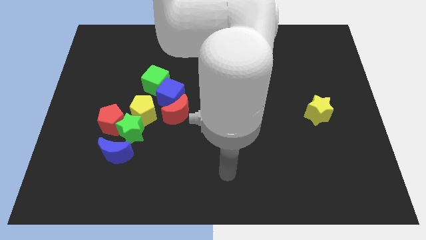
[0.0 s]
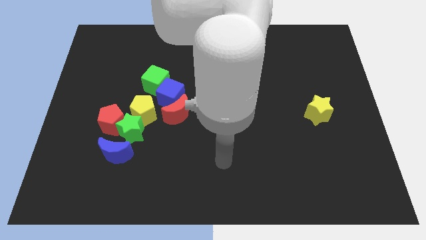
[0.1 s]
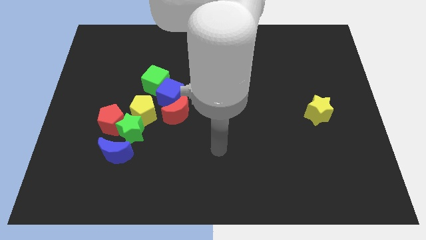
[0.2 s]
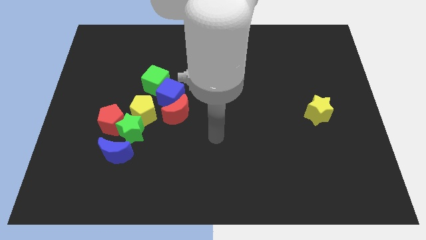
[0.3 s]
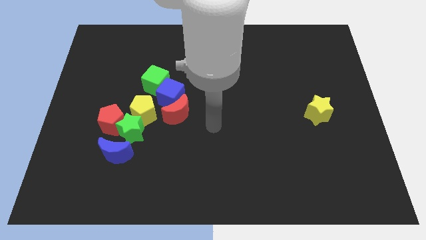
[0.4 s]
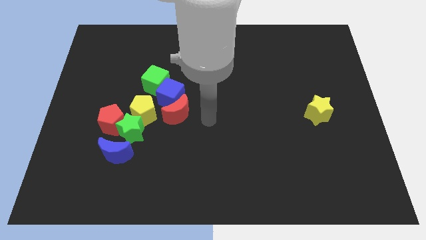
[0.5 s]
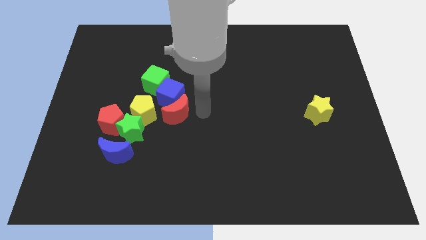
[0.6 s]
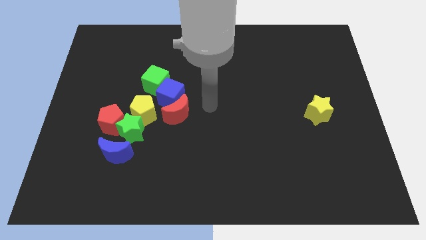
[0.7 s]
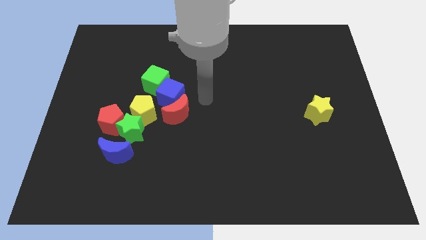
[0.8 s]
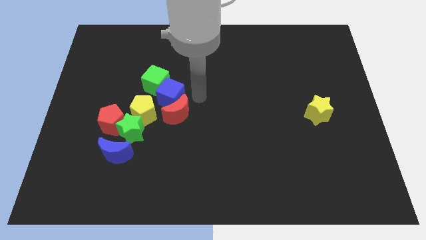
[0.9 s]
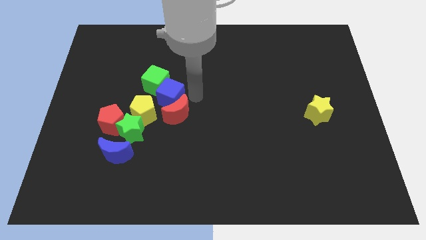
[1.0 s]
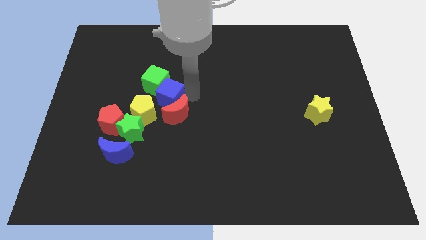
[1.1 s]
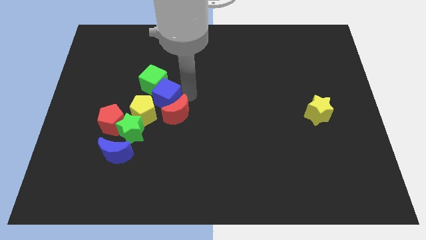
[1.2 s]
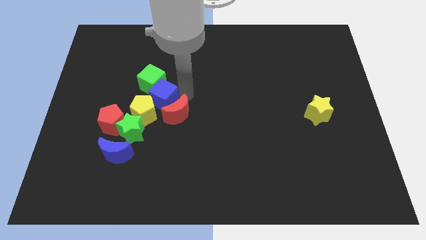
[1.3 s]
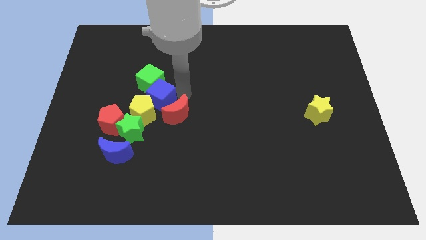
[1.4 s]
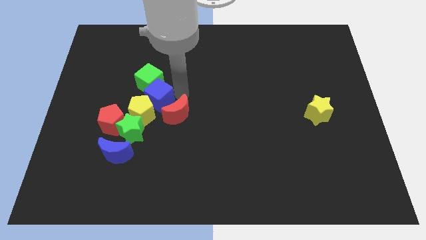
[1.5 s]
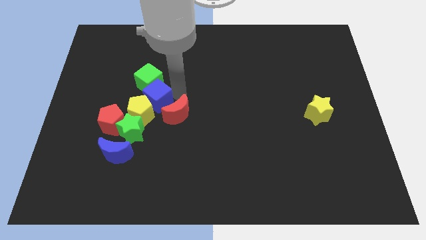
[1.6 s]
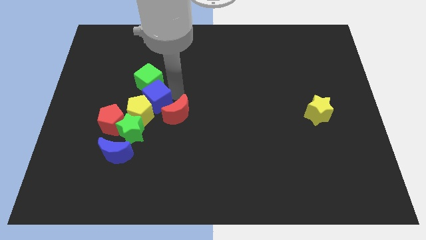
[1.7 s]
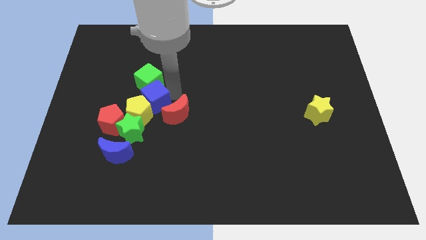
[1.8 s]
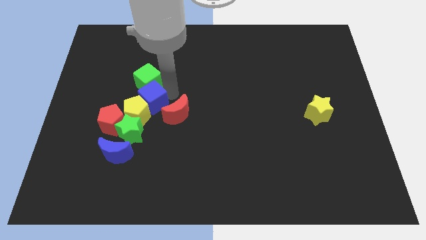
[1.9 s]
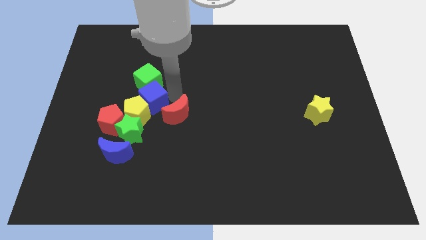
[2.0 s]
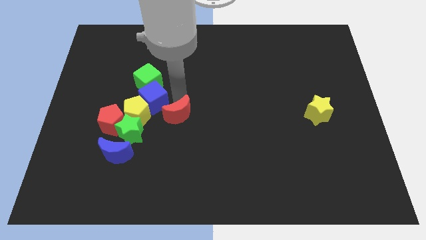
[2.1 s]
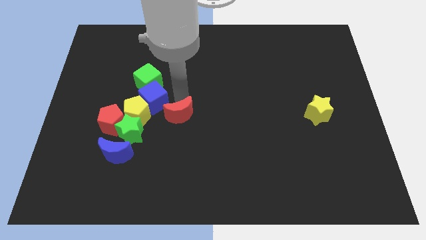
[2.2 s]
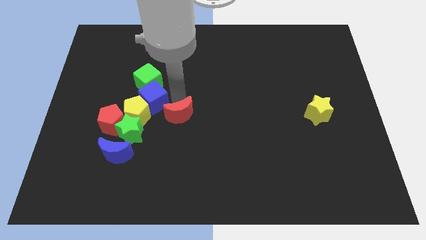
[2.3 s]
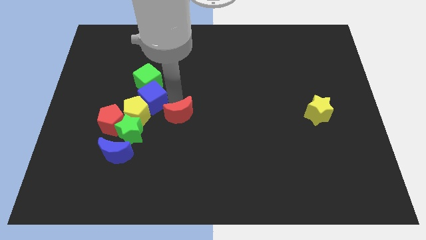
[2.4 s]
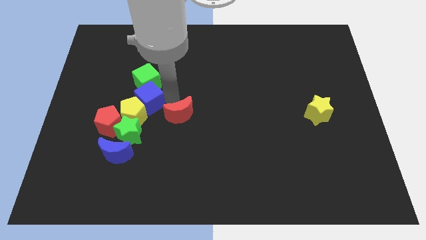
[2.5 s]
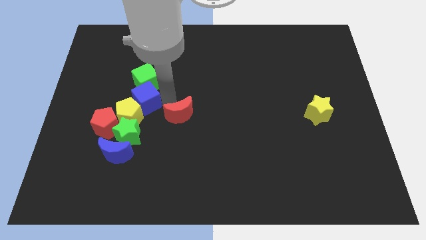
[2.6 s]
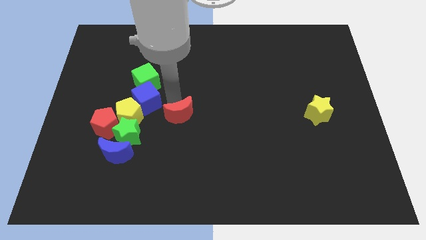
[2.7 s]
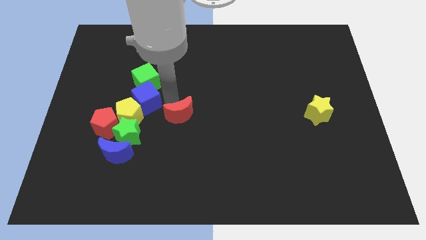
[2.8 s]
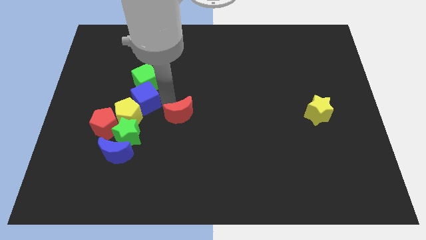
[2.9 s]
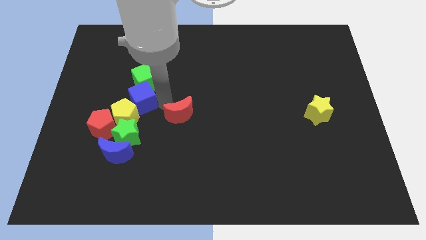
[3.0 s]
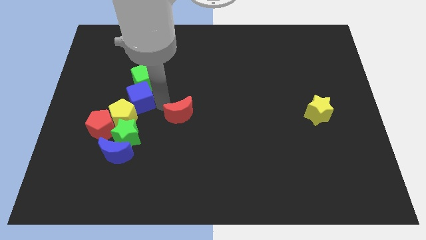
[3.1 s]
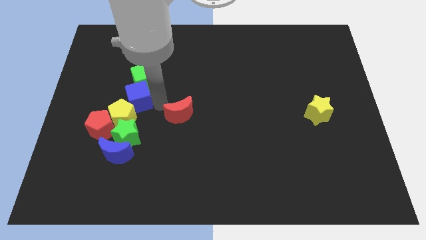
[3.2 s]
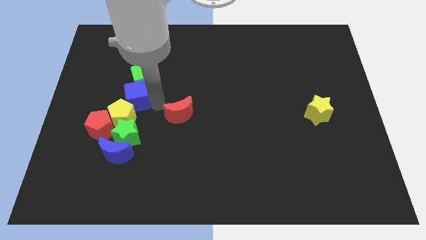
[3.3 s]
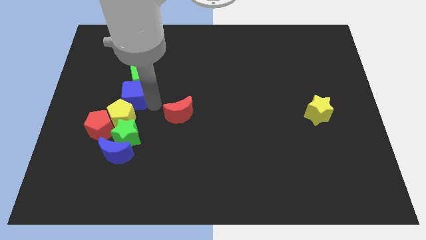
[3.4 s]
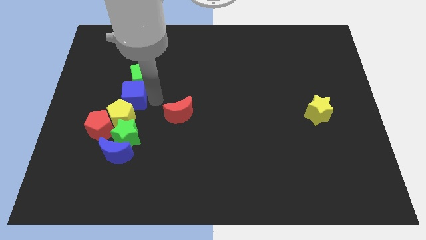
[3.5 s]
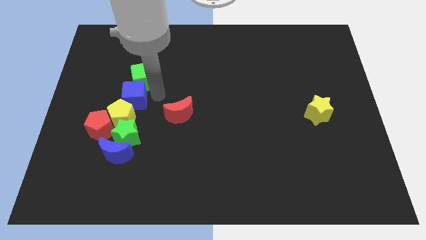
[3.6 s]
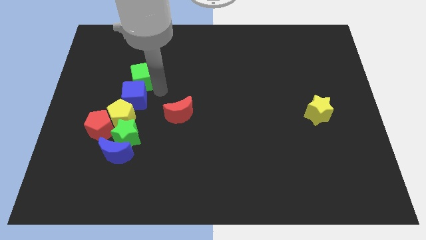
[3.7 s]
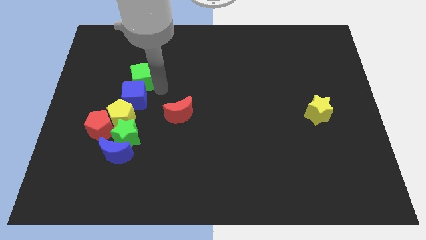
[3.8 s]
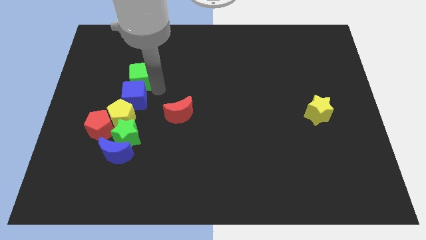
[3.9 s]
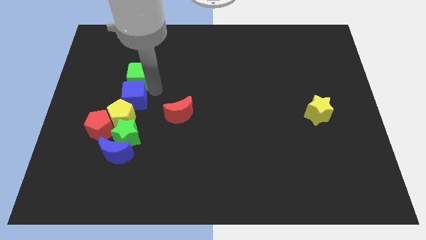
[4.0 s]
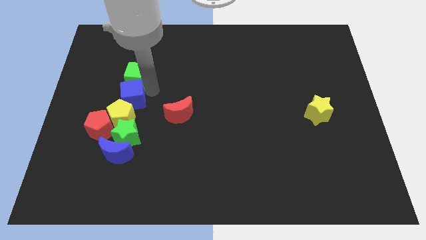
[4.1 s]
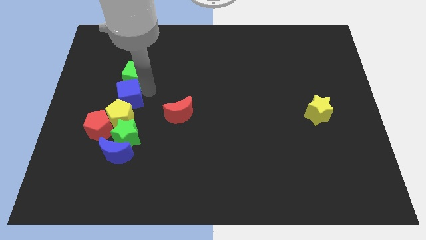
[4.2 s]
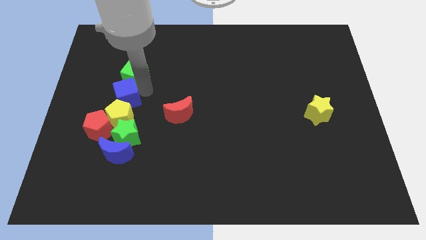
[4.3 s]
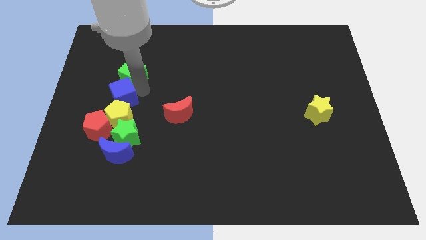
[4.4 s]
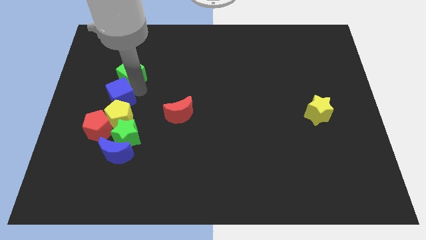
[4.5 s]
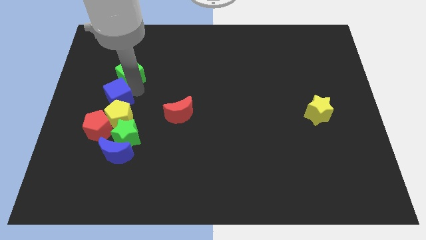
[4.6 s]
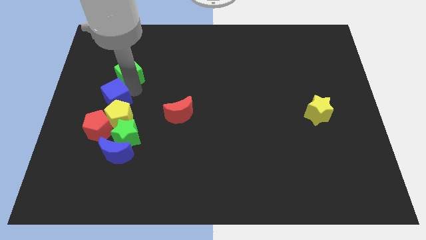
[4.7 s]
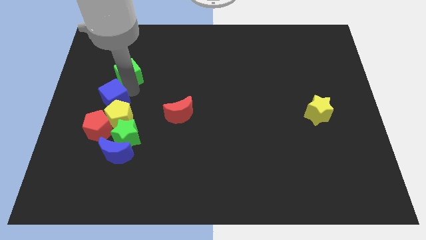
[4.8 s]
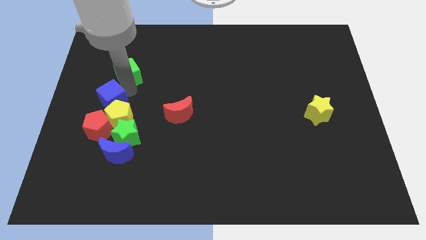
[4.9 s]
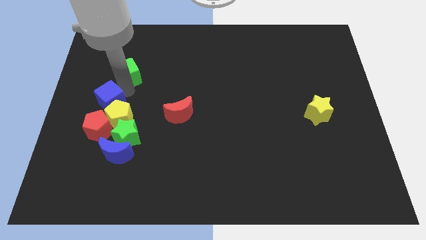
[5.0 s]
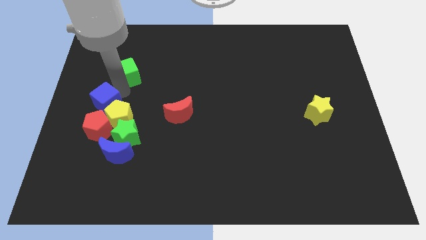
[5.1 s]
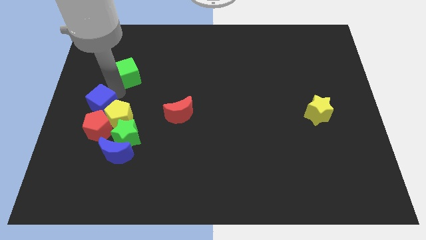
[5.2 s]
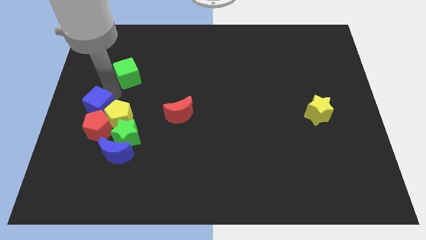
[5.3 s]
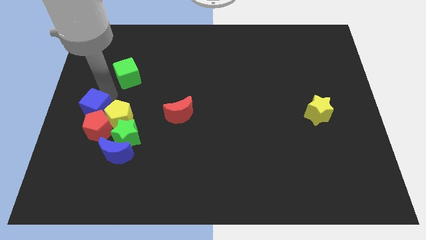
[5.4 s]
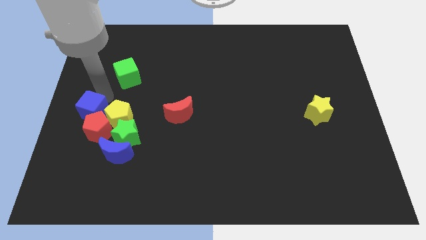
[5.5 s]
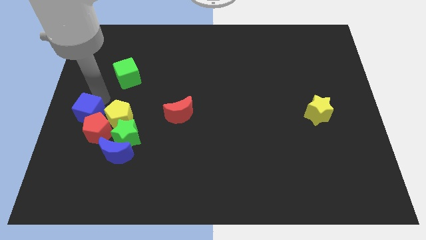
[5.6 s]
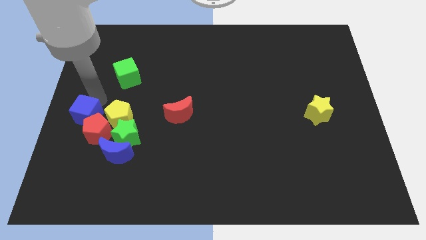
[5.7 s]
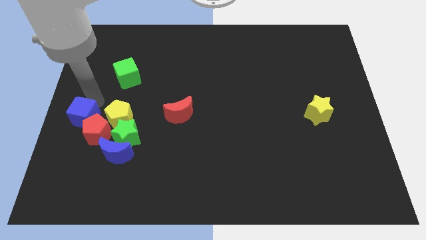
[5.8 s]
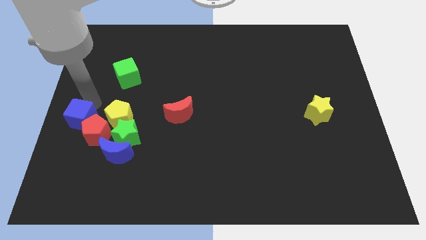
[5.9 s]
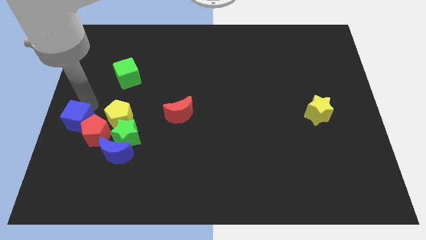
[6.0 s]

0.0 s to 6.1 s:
push the blue cube just left of the green star

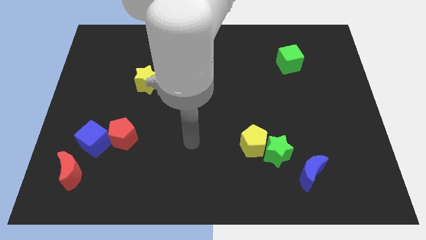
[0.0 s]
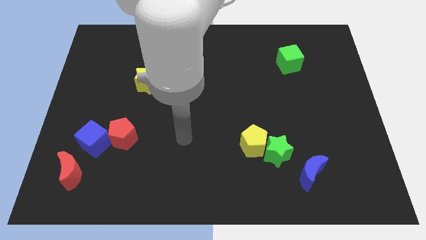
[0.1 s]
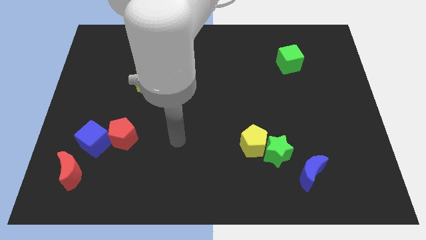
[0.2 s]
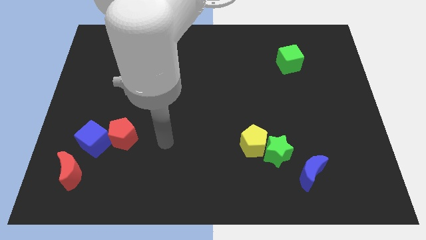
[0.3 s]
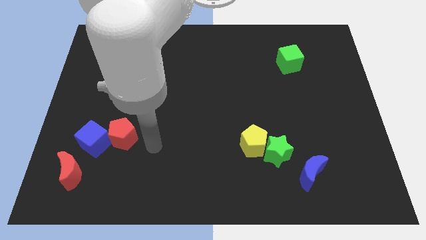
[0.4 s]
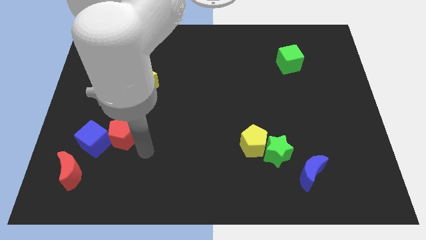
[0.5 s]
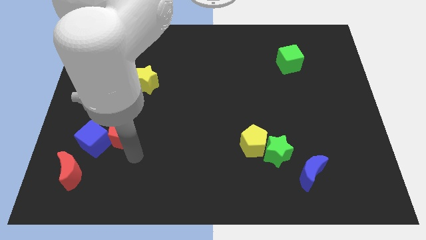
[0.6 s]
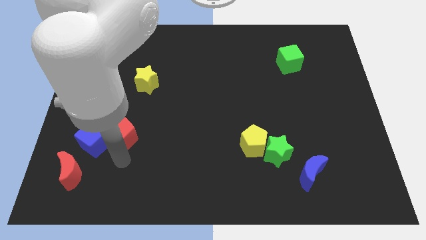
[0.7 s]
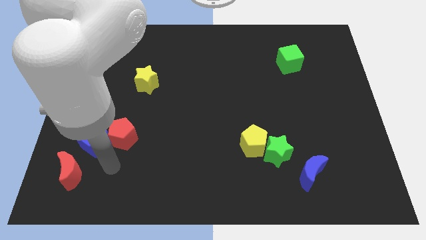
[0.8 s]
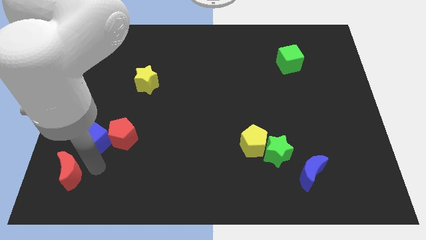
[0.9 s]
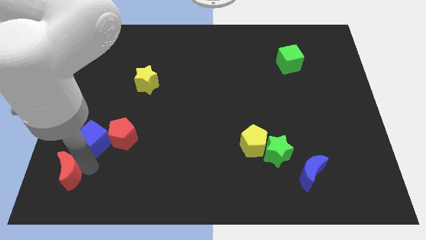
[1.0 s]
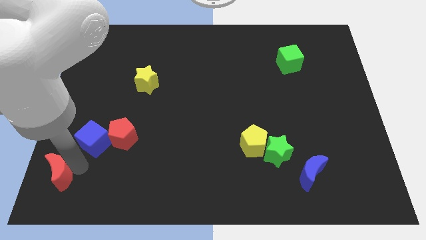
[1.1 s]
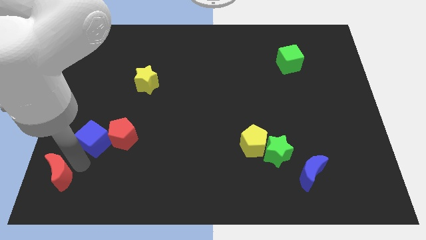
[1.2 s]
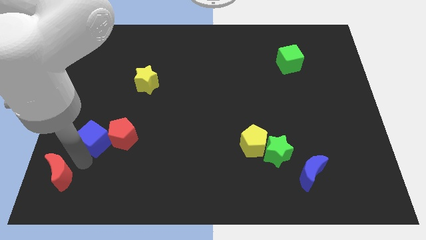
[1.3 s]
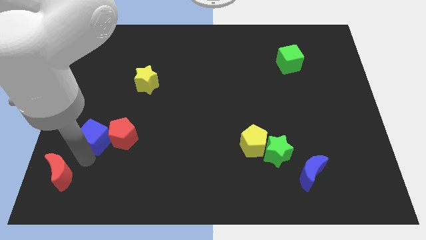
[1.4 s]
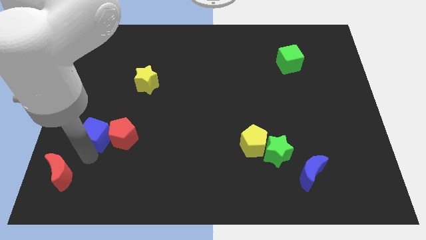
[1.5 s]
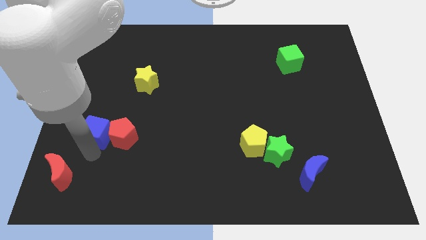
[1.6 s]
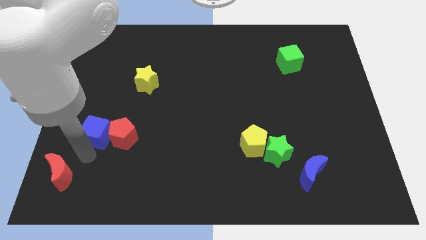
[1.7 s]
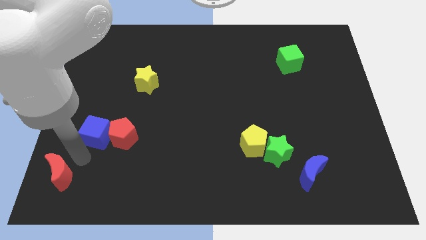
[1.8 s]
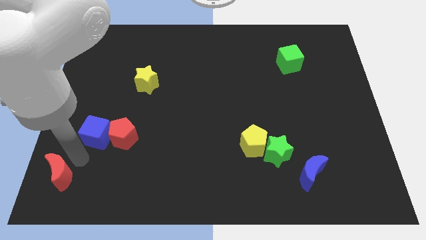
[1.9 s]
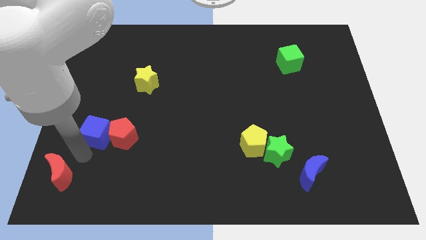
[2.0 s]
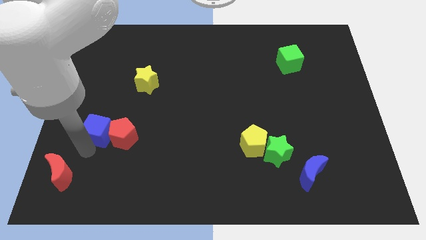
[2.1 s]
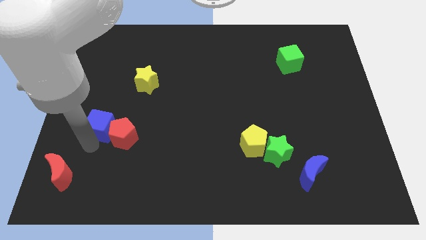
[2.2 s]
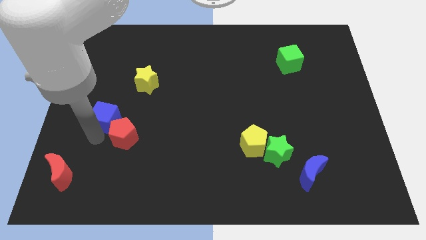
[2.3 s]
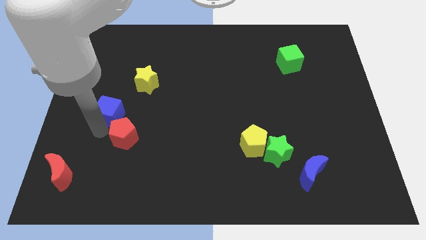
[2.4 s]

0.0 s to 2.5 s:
put the blue cube to the bottom left side of the yellow star
